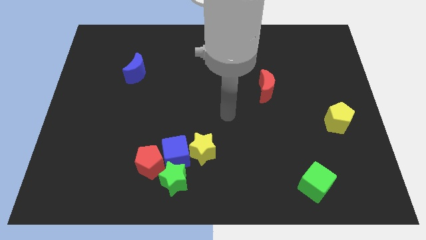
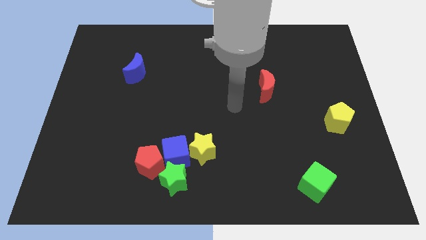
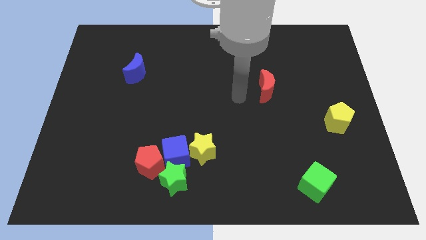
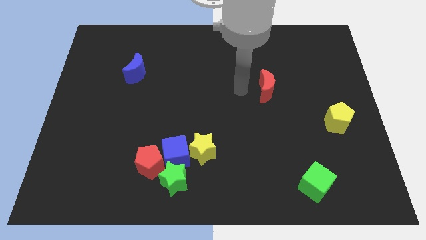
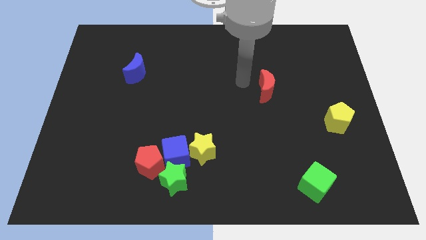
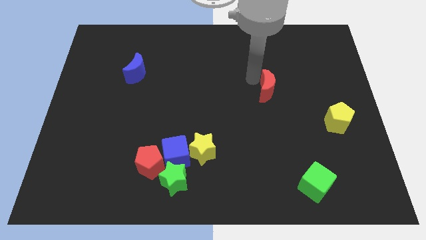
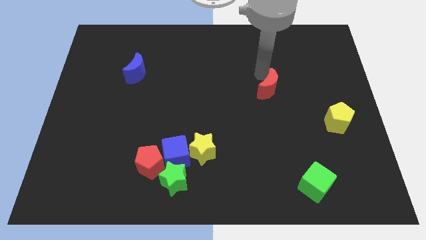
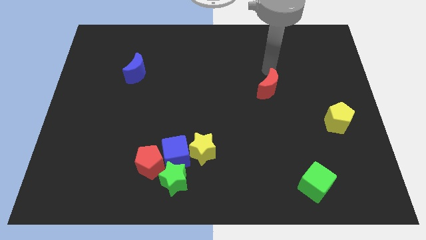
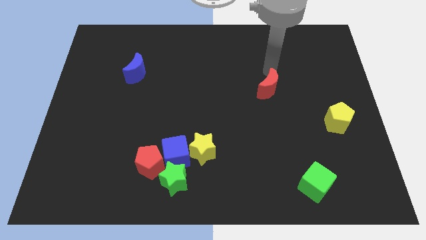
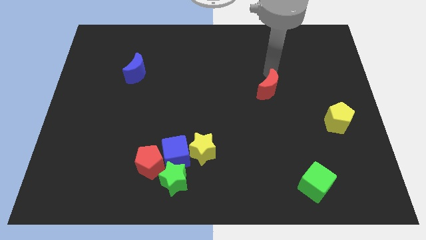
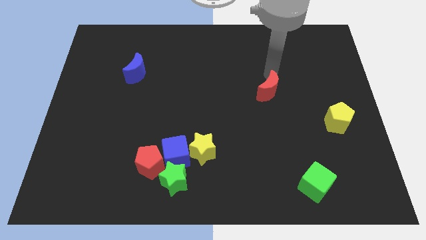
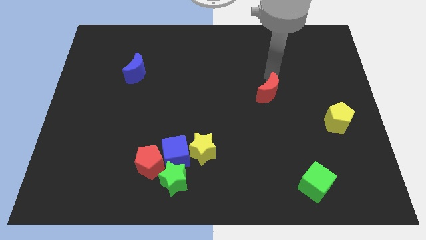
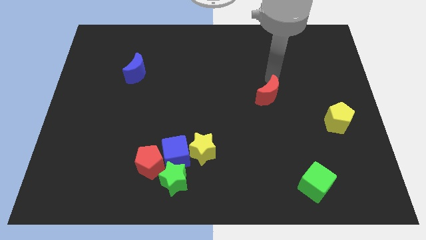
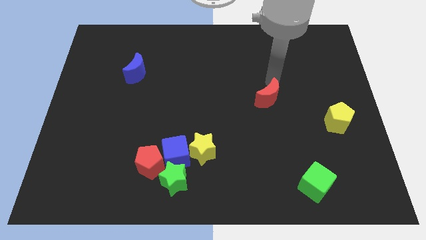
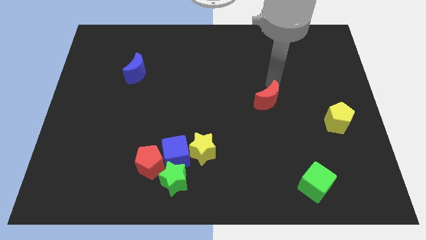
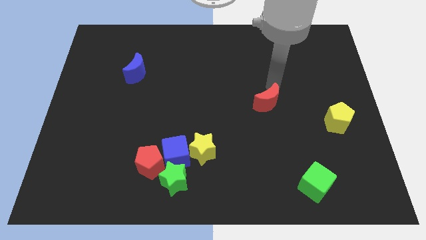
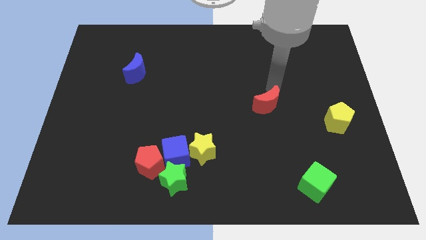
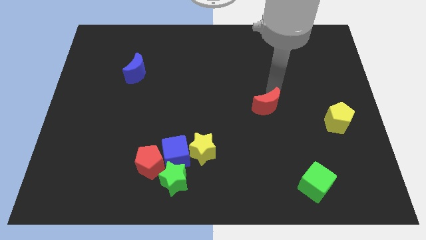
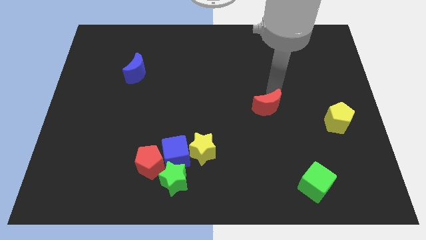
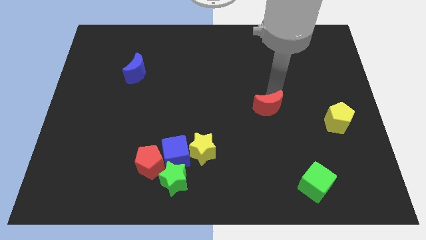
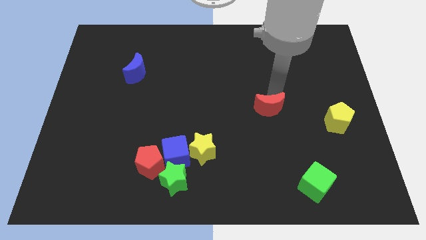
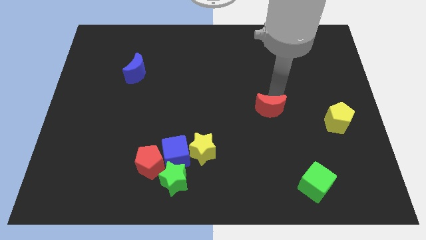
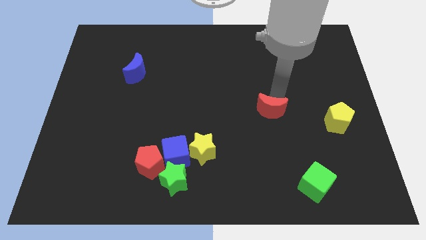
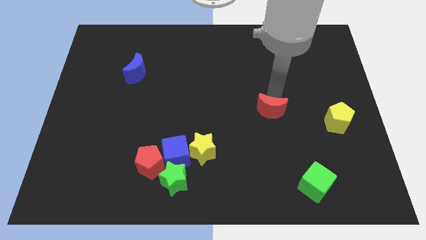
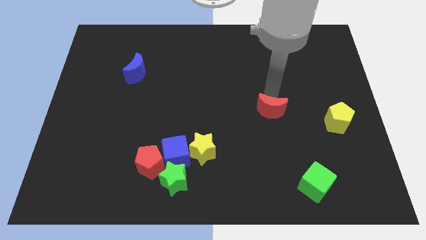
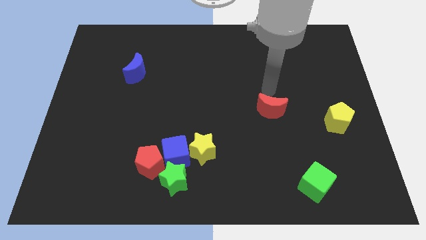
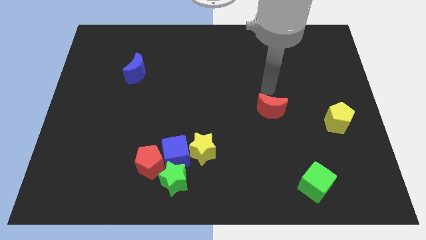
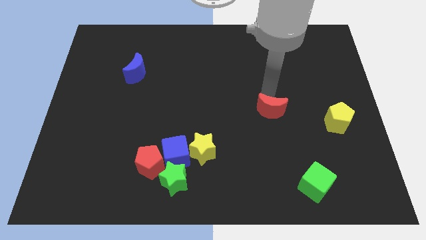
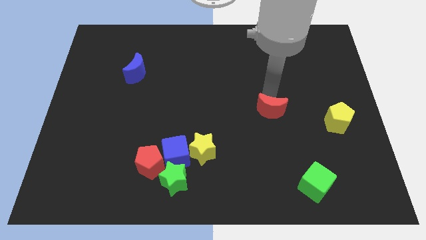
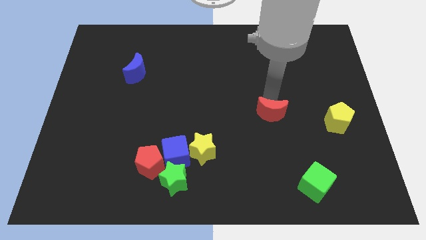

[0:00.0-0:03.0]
push the red moon a bit down

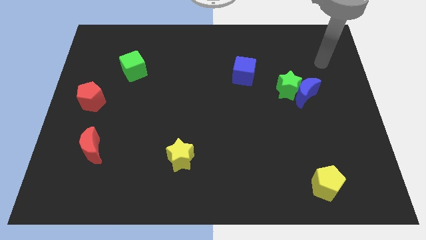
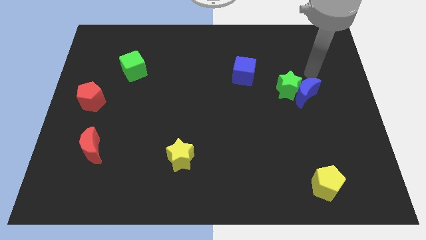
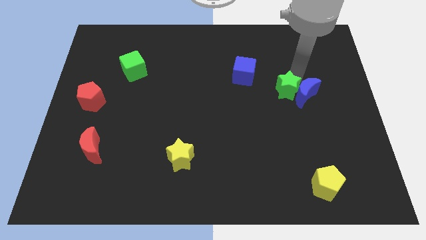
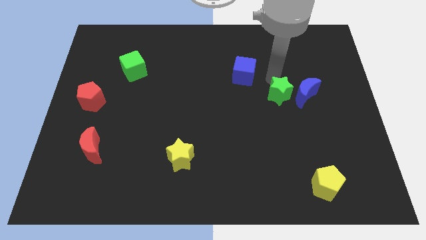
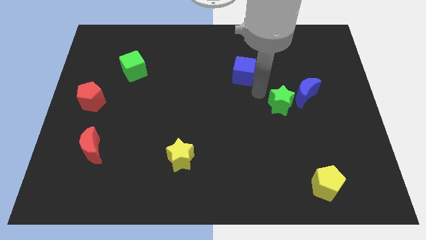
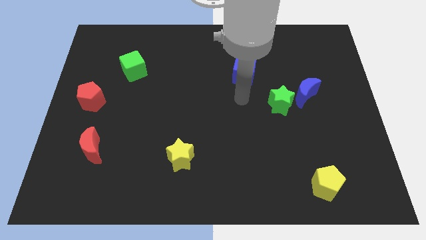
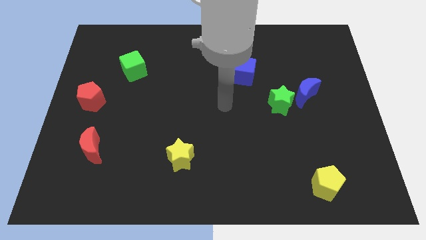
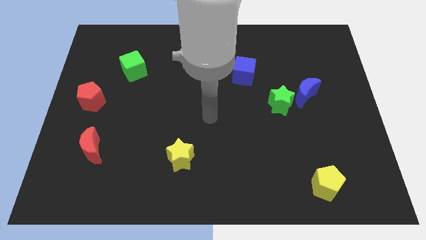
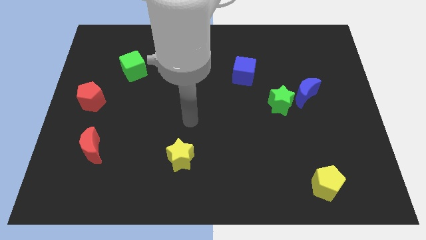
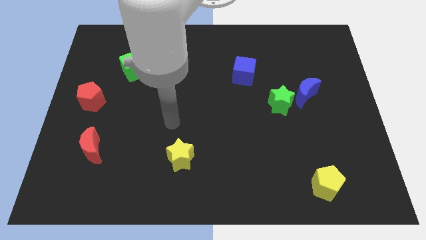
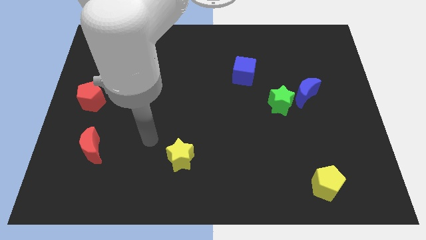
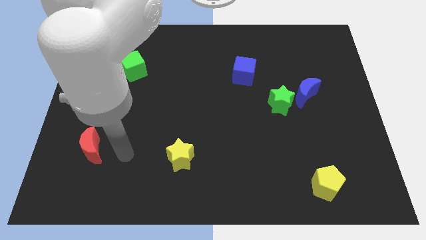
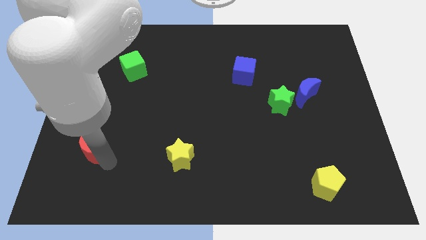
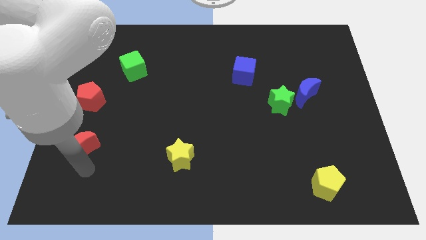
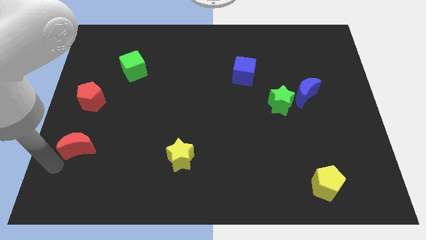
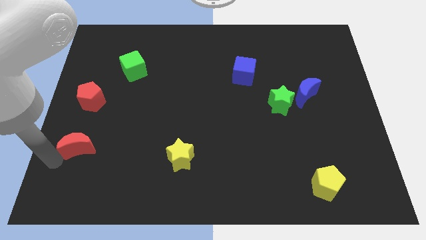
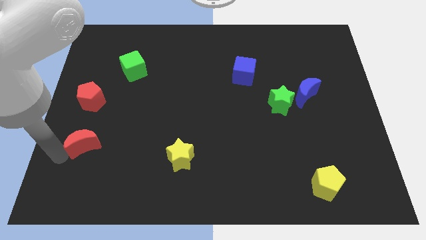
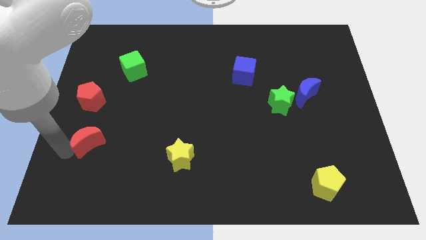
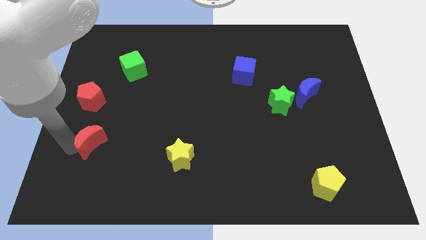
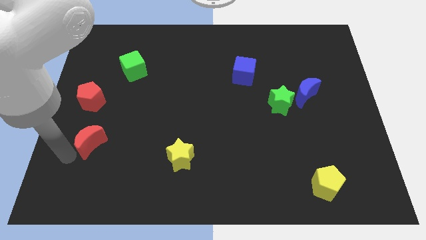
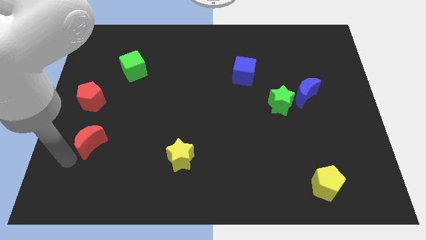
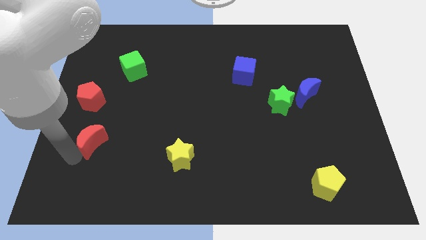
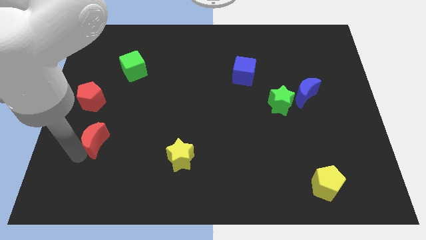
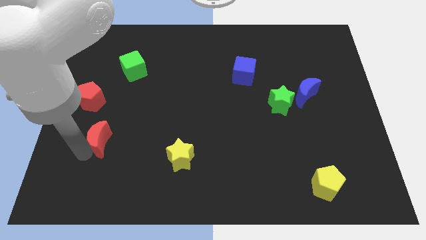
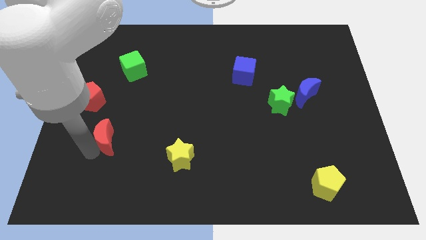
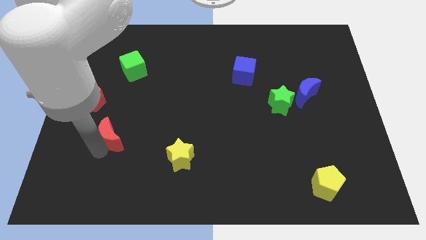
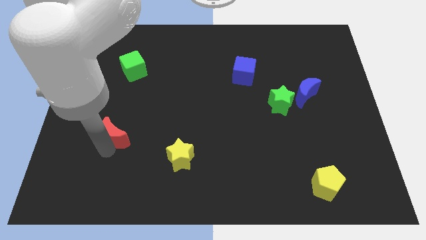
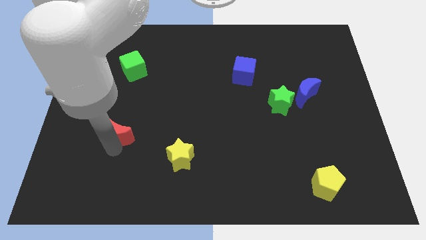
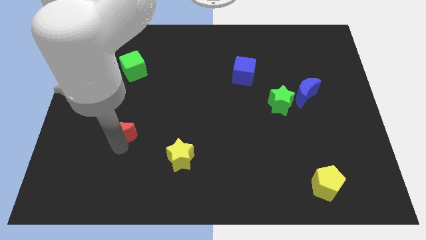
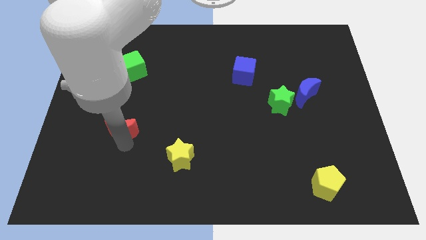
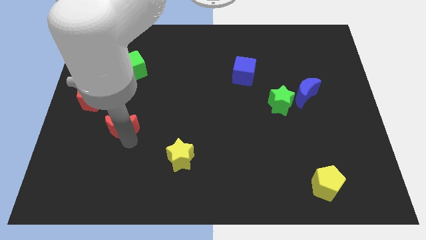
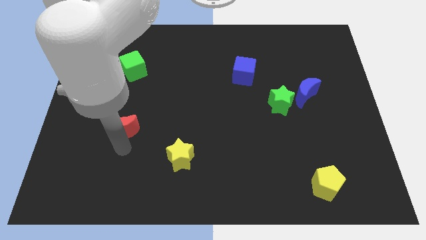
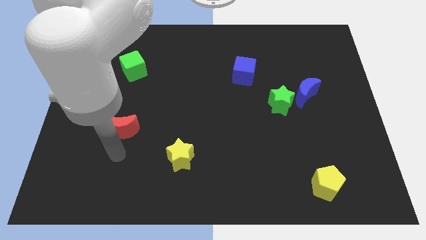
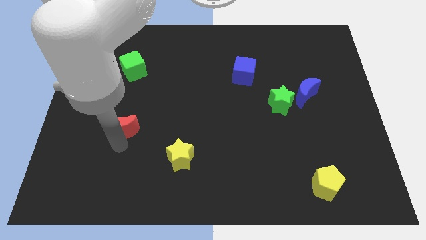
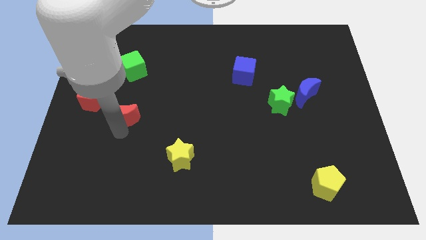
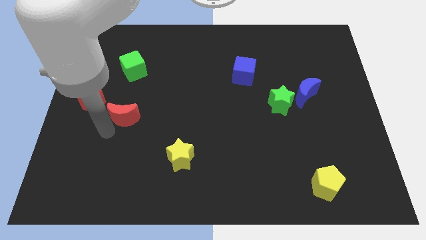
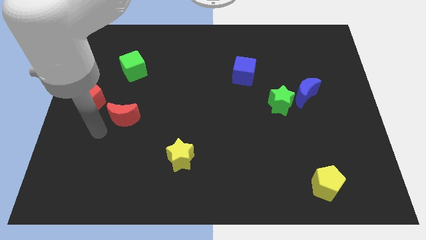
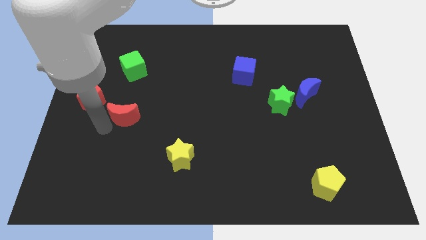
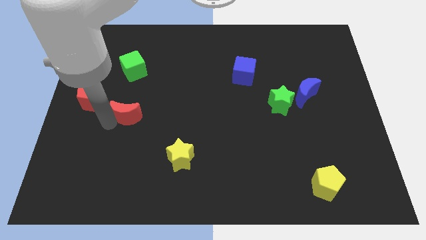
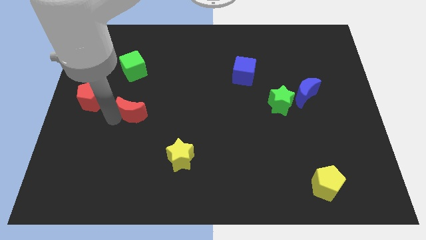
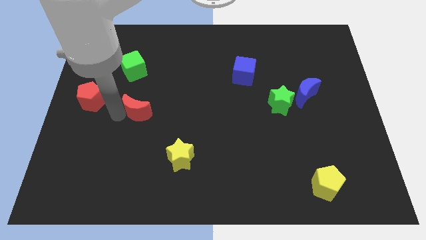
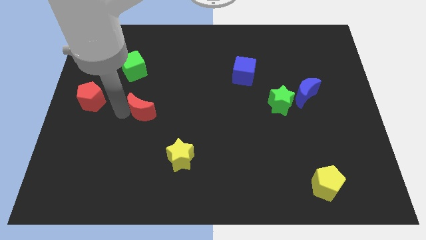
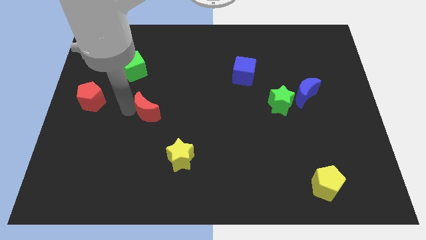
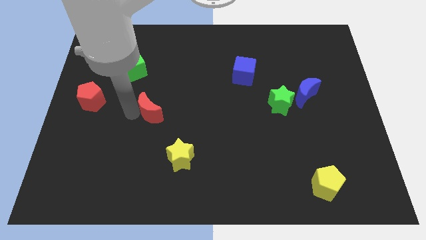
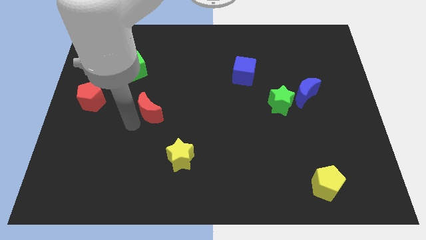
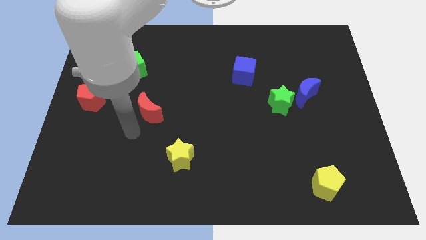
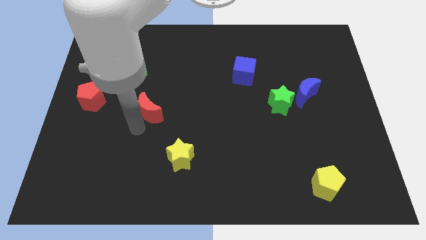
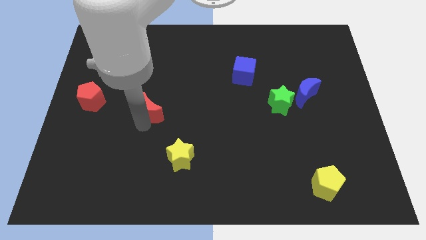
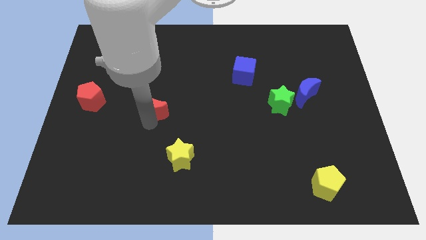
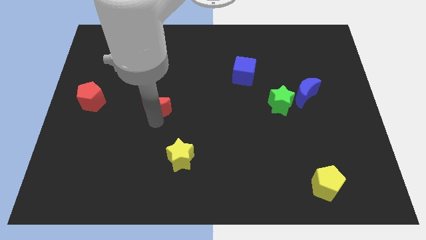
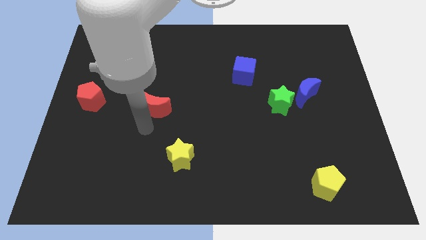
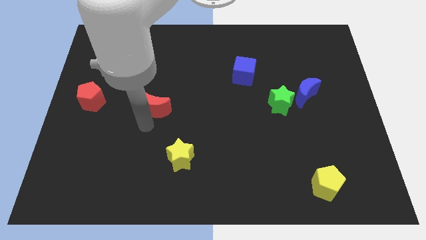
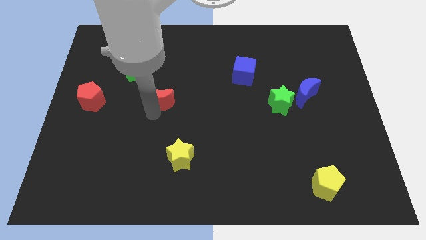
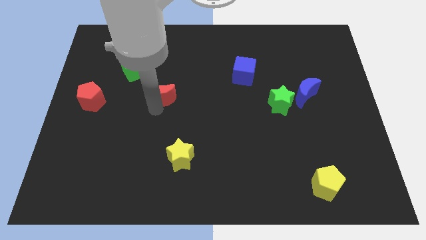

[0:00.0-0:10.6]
push the red moon diagonally up and right
